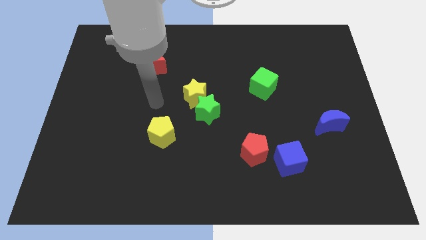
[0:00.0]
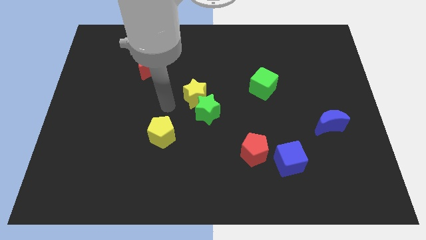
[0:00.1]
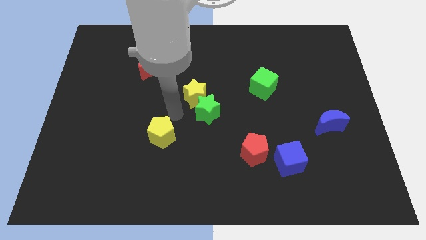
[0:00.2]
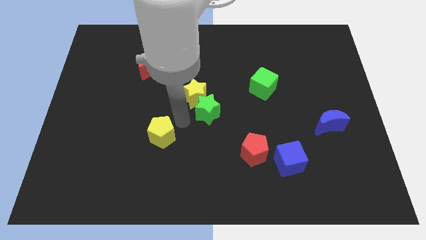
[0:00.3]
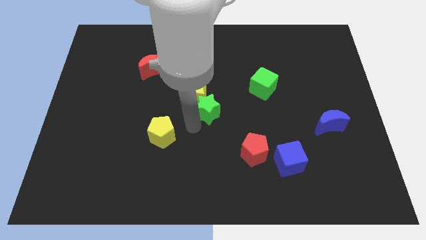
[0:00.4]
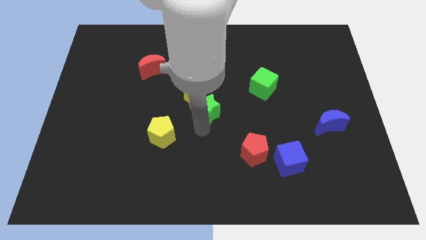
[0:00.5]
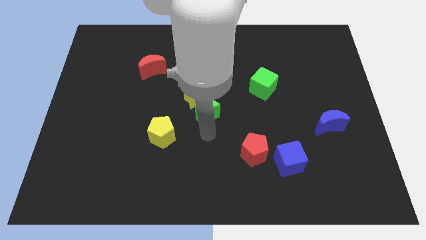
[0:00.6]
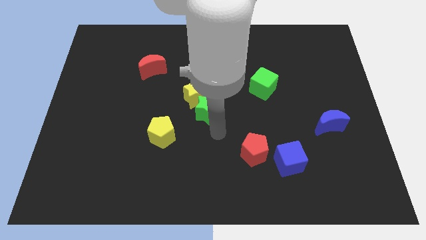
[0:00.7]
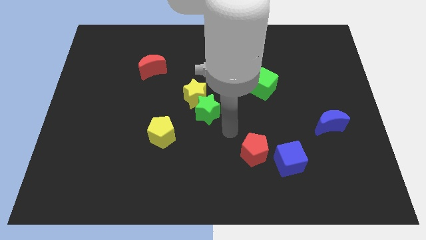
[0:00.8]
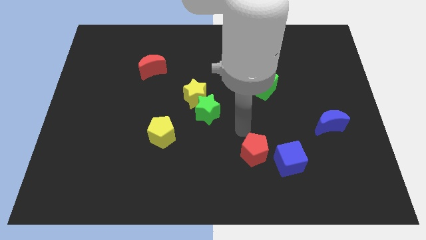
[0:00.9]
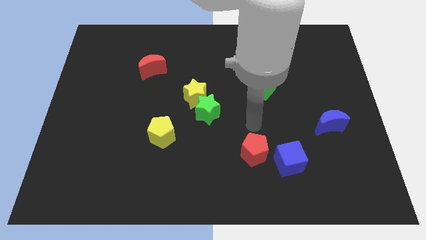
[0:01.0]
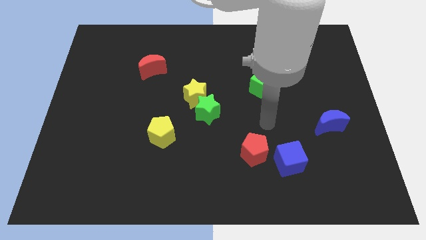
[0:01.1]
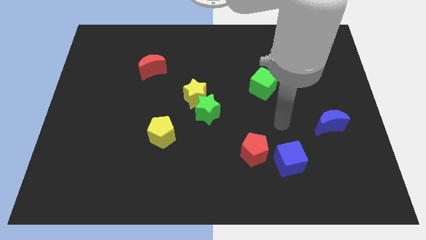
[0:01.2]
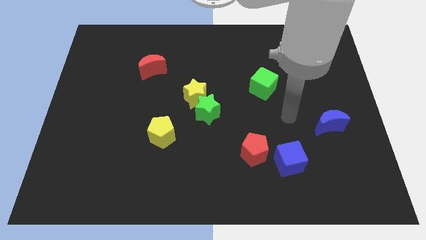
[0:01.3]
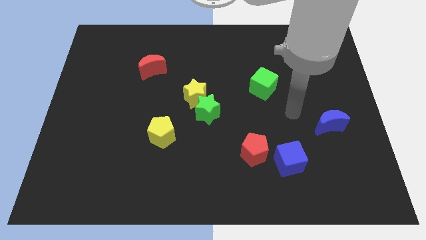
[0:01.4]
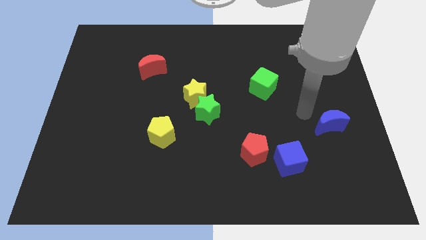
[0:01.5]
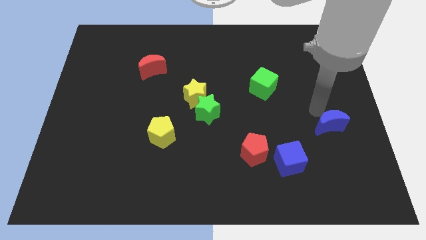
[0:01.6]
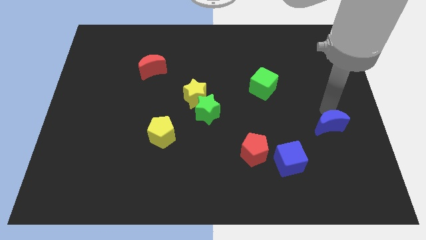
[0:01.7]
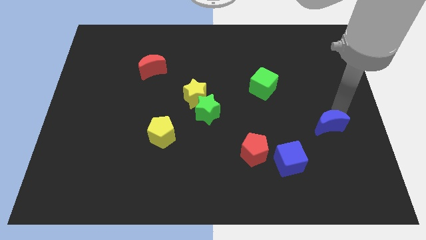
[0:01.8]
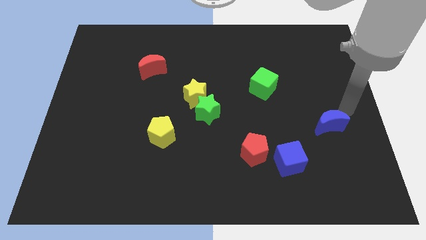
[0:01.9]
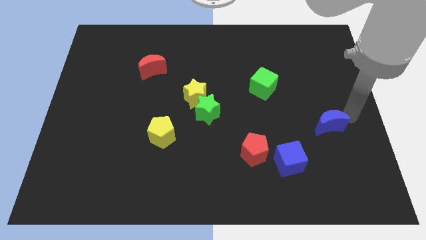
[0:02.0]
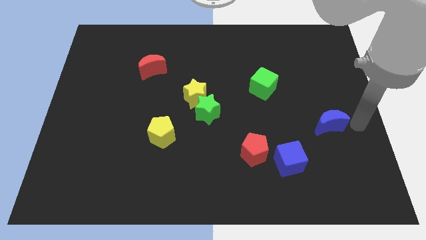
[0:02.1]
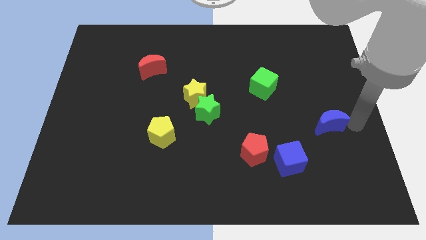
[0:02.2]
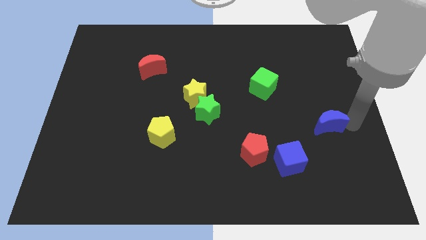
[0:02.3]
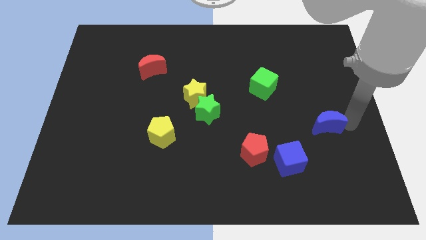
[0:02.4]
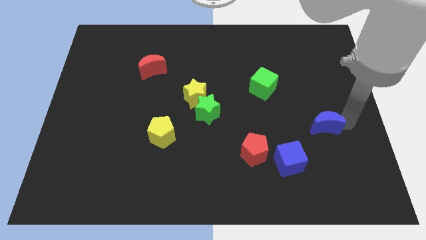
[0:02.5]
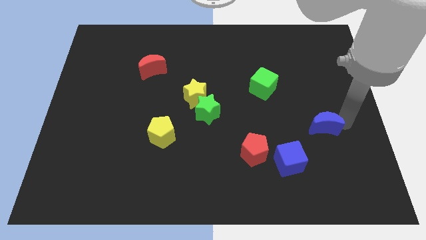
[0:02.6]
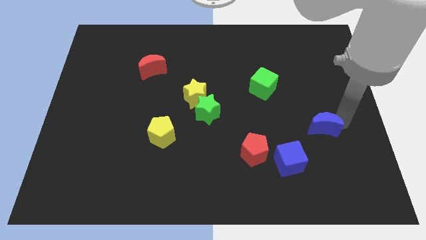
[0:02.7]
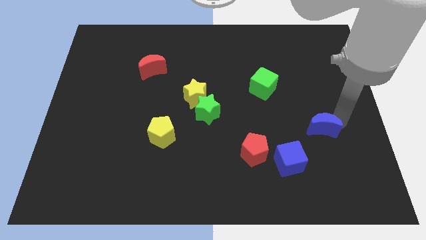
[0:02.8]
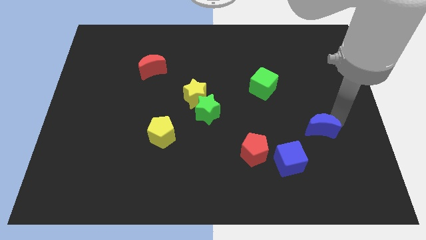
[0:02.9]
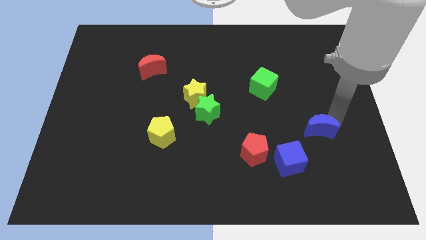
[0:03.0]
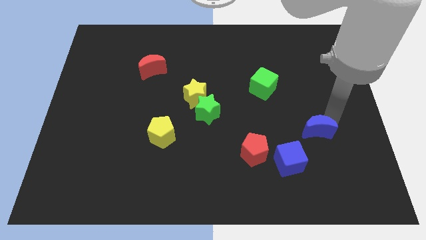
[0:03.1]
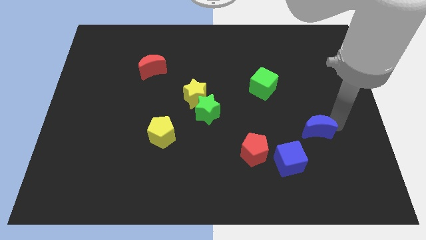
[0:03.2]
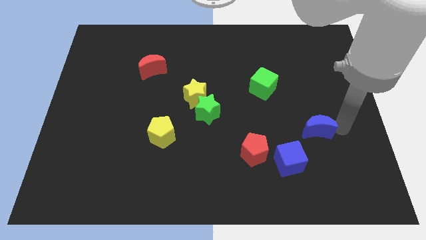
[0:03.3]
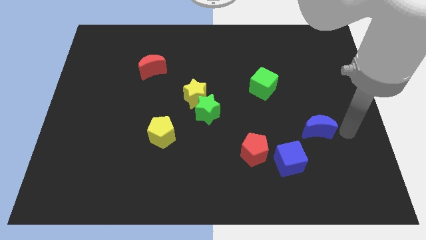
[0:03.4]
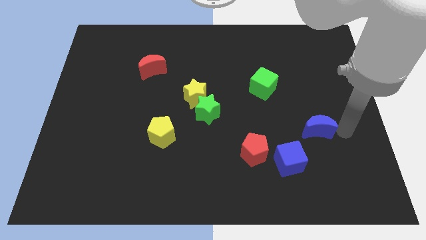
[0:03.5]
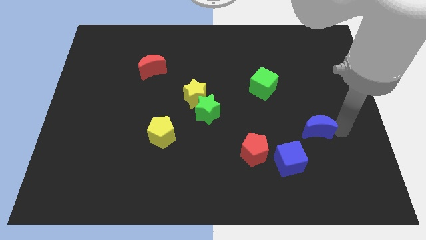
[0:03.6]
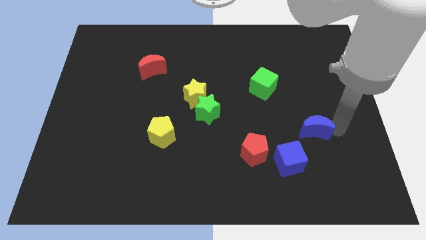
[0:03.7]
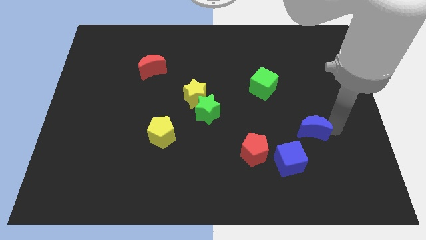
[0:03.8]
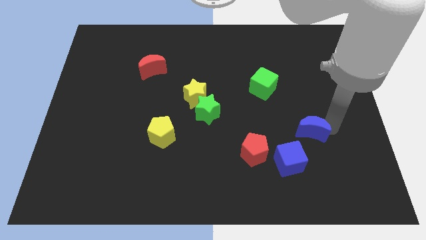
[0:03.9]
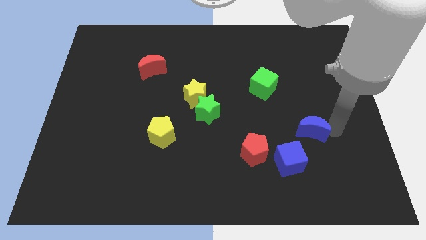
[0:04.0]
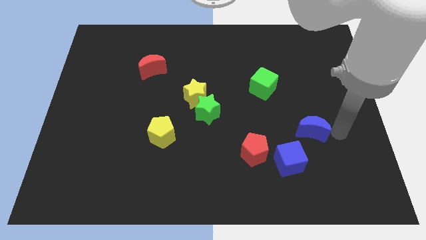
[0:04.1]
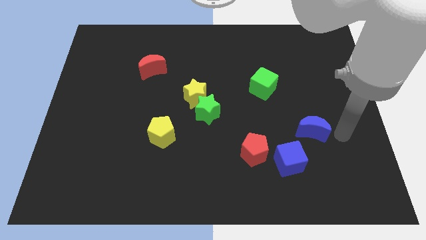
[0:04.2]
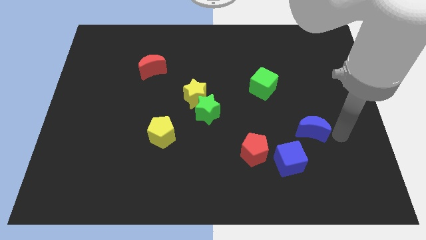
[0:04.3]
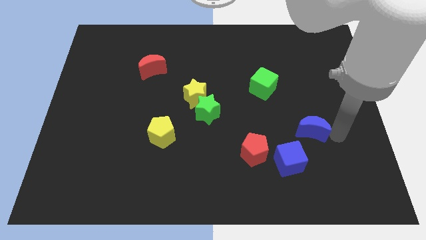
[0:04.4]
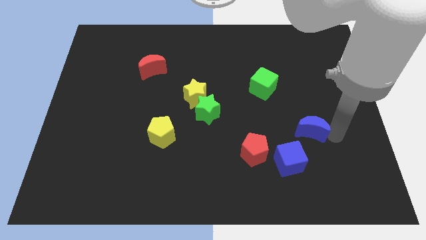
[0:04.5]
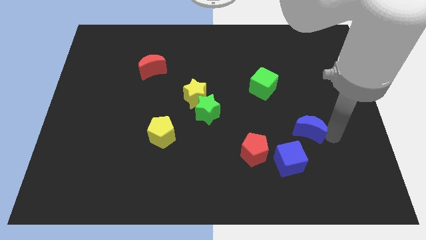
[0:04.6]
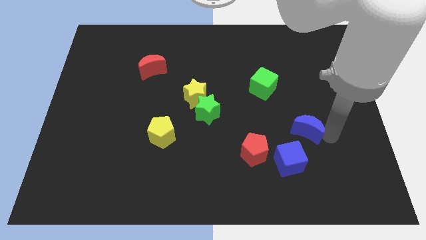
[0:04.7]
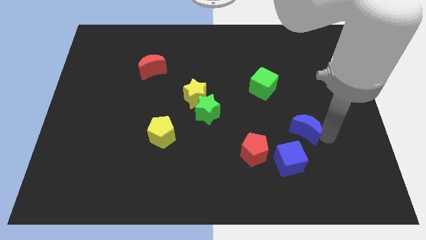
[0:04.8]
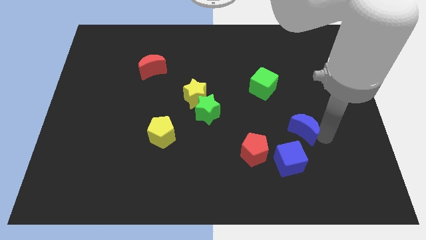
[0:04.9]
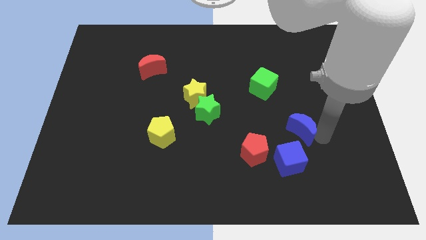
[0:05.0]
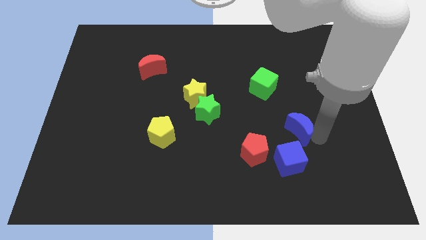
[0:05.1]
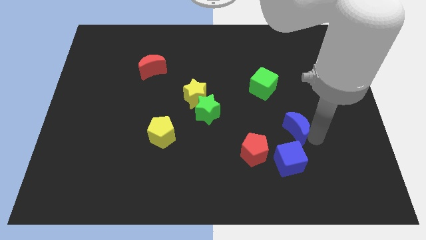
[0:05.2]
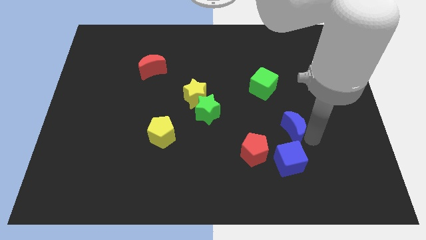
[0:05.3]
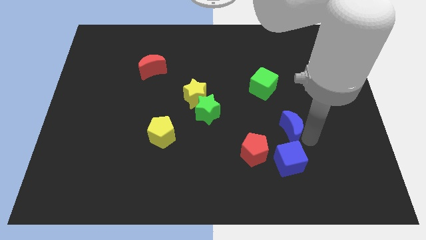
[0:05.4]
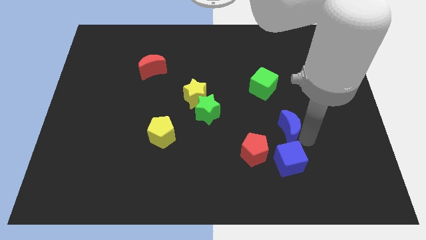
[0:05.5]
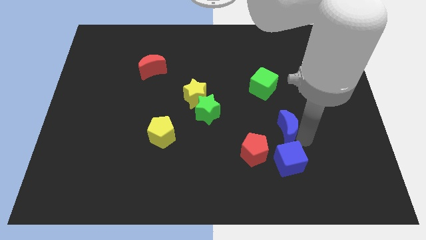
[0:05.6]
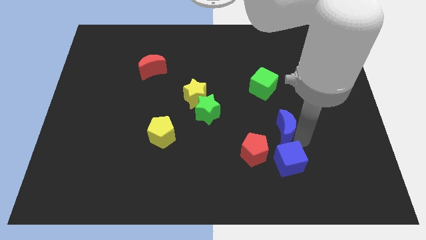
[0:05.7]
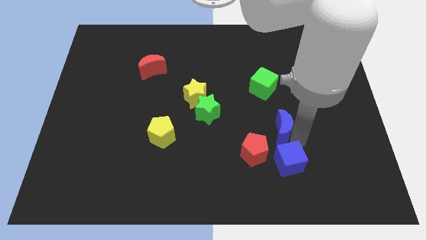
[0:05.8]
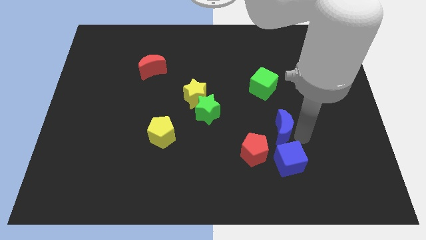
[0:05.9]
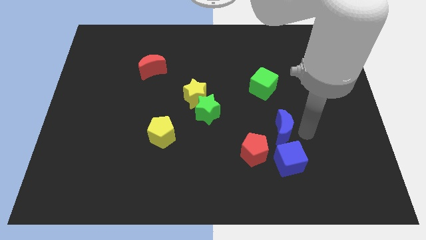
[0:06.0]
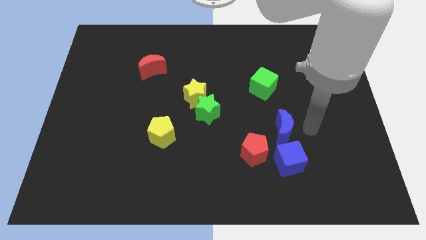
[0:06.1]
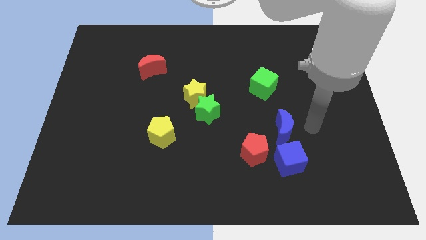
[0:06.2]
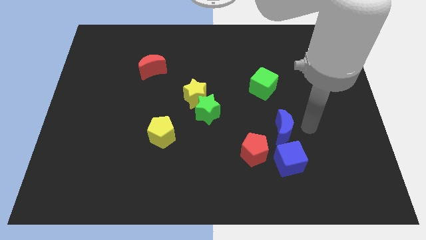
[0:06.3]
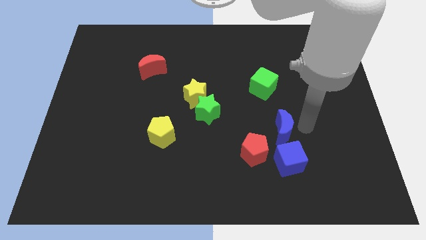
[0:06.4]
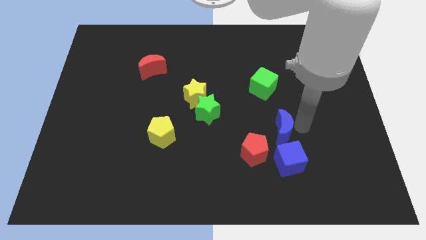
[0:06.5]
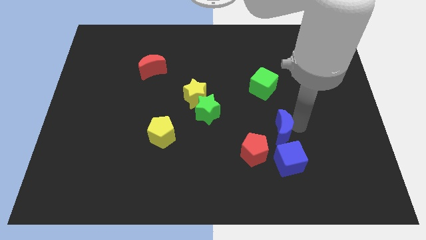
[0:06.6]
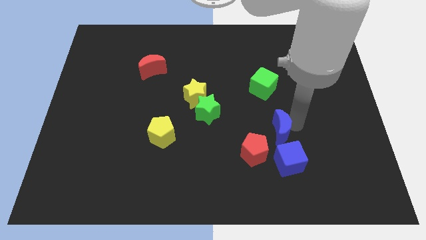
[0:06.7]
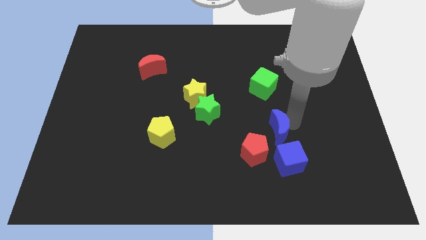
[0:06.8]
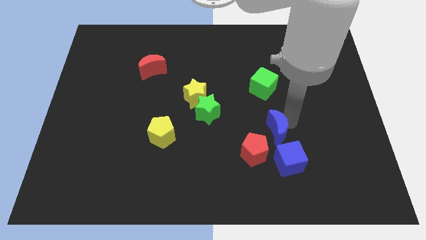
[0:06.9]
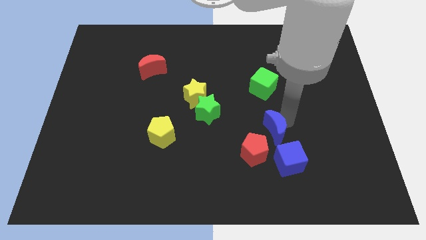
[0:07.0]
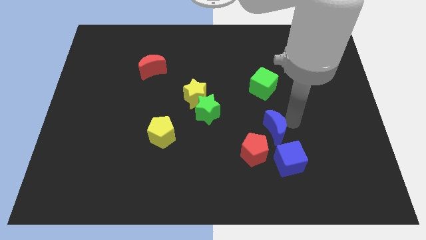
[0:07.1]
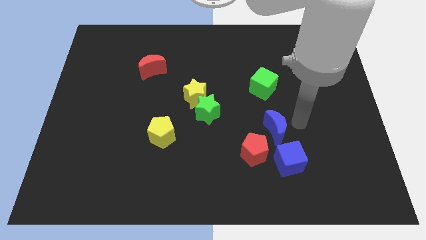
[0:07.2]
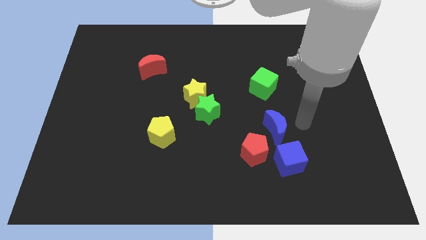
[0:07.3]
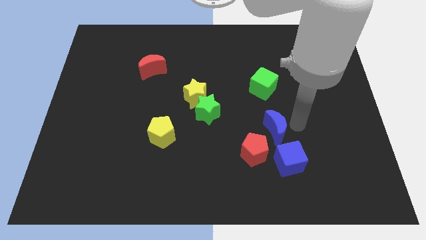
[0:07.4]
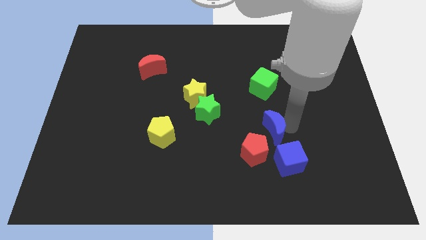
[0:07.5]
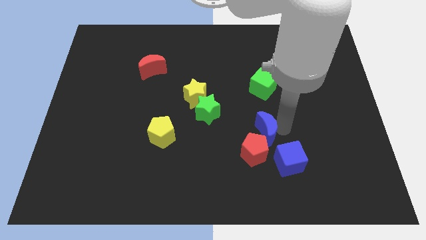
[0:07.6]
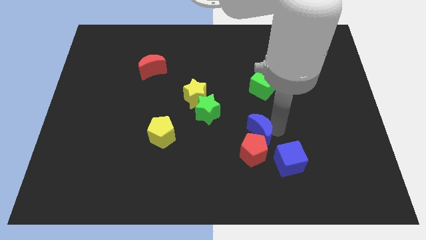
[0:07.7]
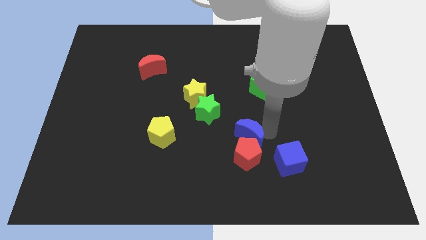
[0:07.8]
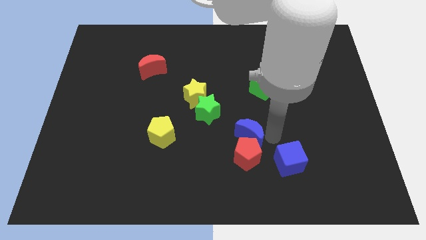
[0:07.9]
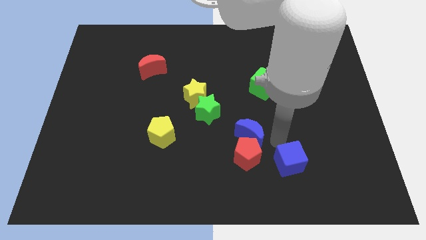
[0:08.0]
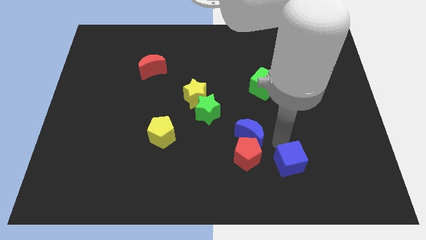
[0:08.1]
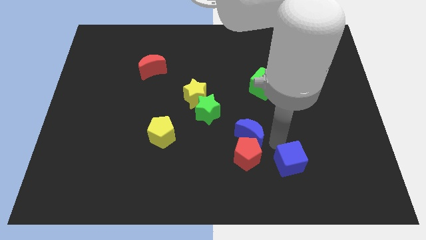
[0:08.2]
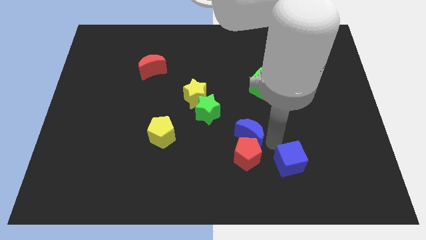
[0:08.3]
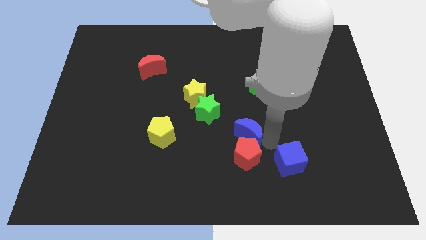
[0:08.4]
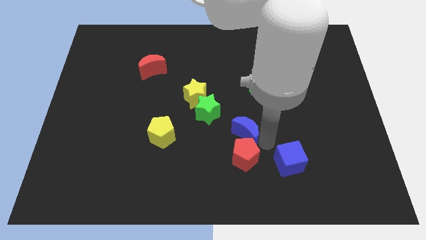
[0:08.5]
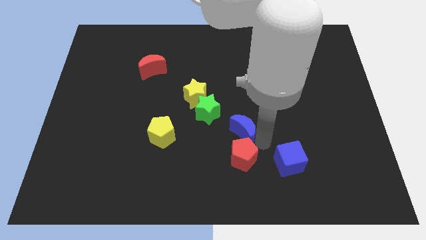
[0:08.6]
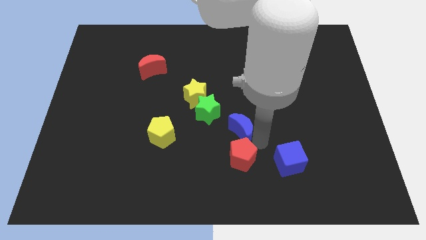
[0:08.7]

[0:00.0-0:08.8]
push the blue moon to the left
